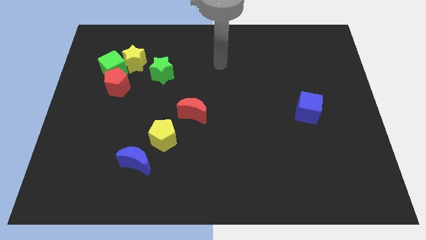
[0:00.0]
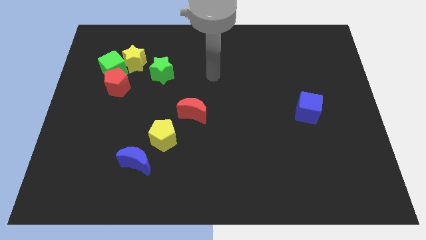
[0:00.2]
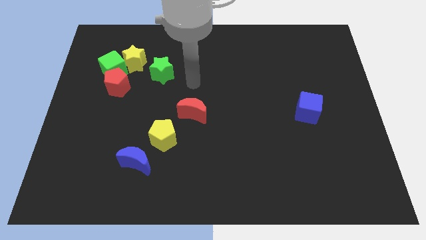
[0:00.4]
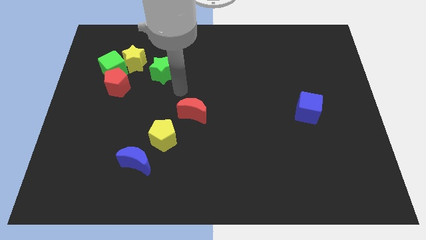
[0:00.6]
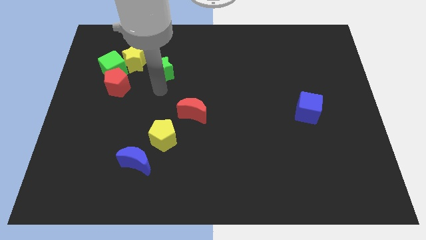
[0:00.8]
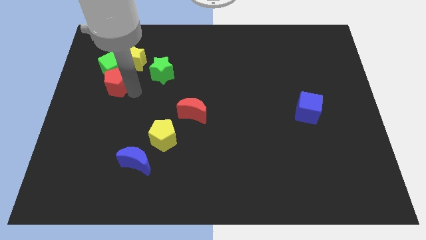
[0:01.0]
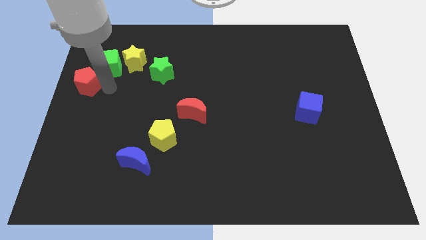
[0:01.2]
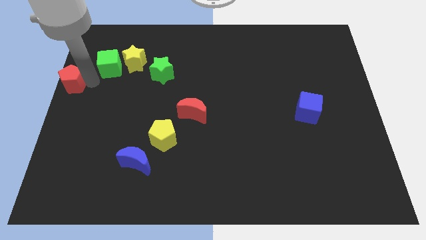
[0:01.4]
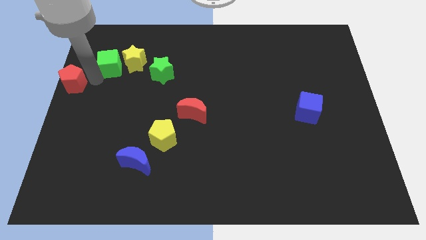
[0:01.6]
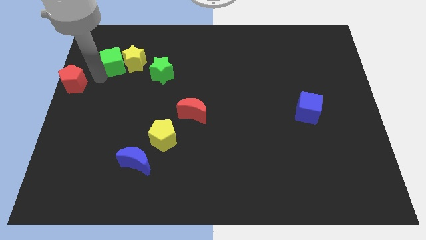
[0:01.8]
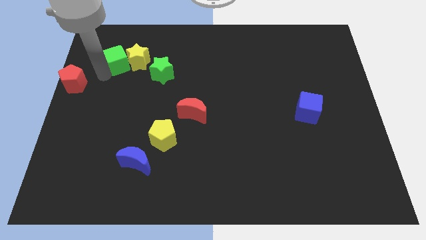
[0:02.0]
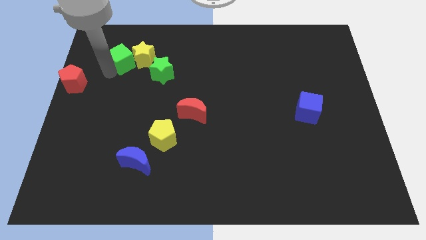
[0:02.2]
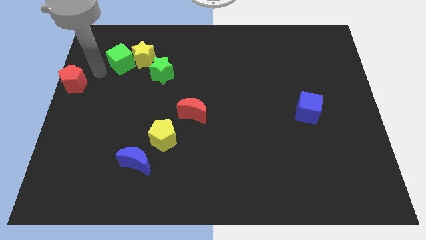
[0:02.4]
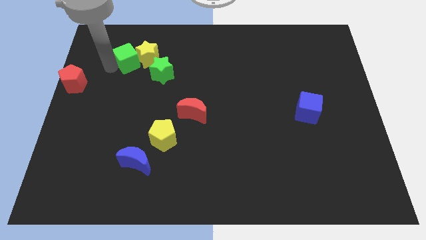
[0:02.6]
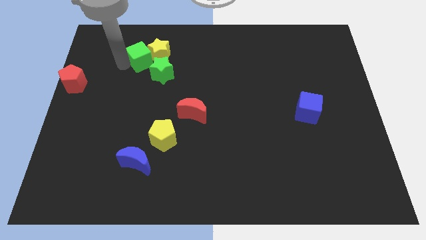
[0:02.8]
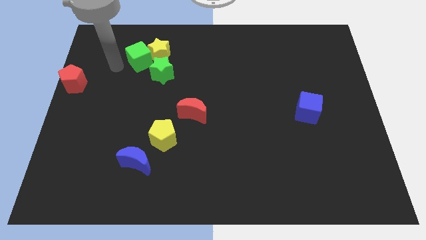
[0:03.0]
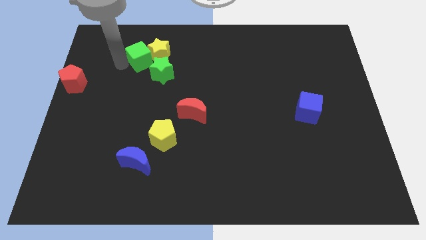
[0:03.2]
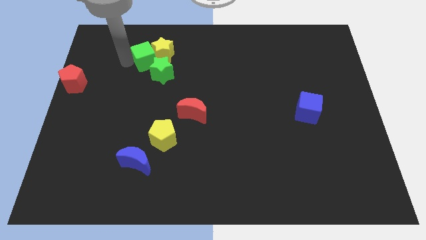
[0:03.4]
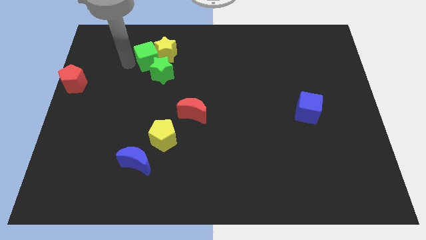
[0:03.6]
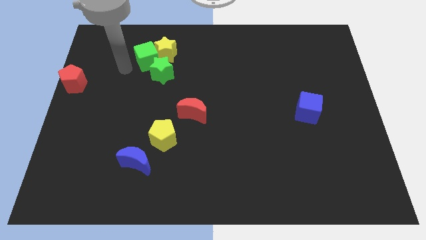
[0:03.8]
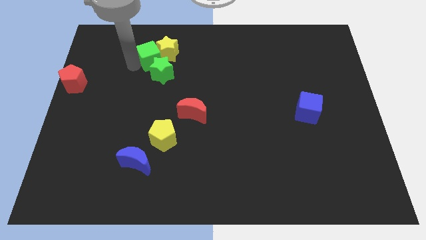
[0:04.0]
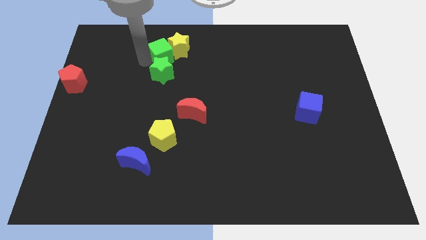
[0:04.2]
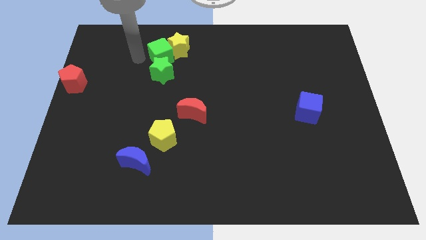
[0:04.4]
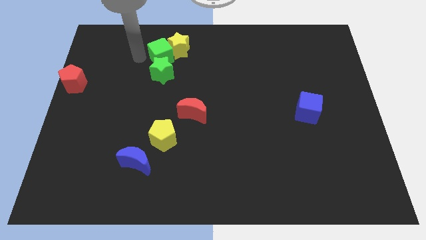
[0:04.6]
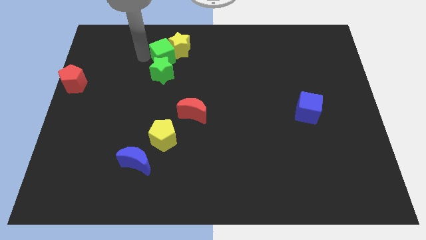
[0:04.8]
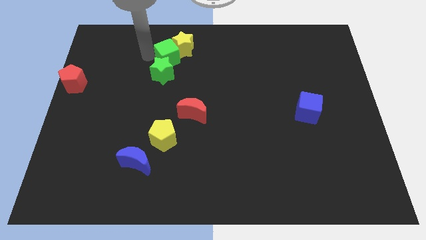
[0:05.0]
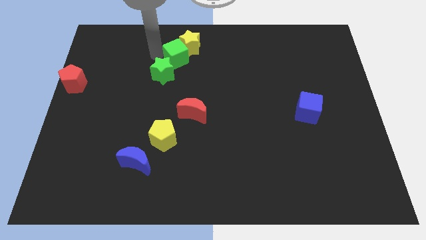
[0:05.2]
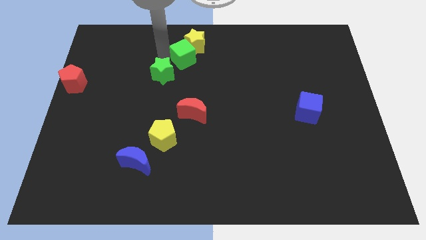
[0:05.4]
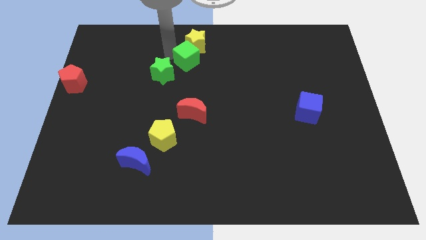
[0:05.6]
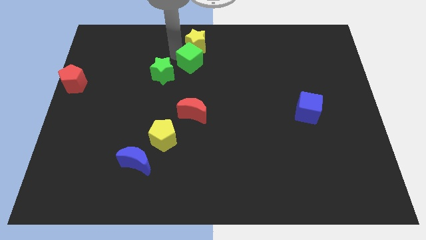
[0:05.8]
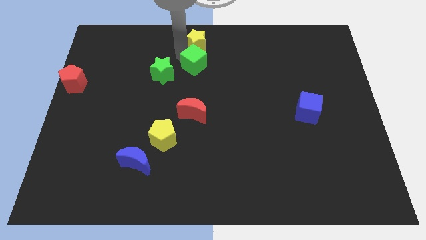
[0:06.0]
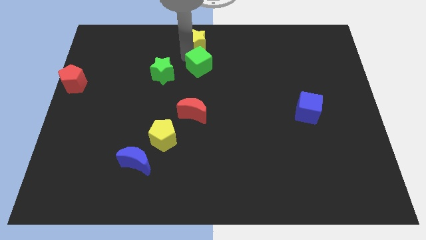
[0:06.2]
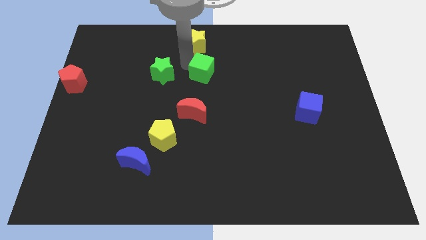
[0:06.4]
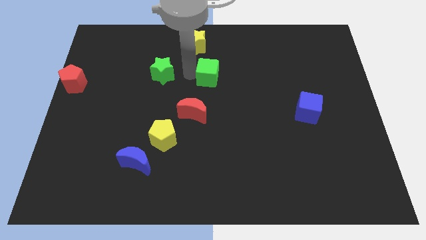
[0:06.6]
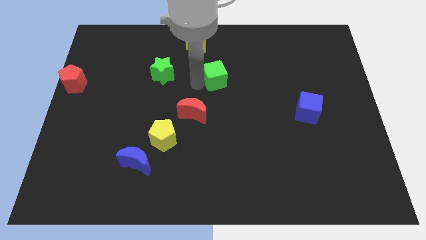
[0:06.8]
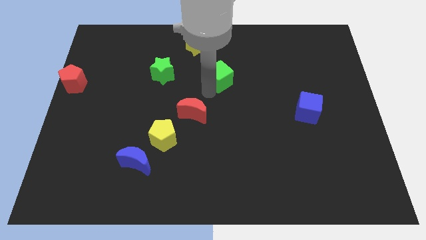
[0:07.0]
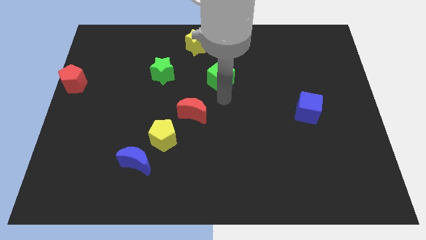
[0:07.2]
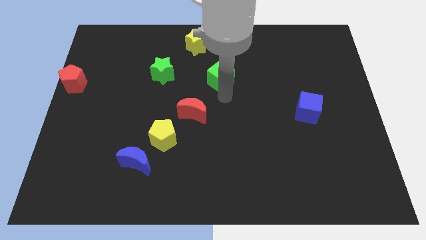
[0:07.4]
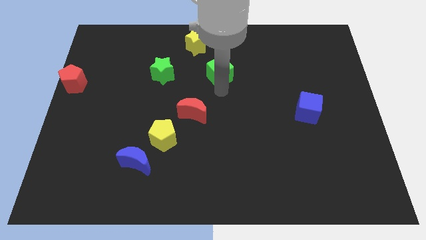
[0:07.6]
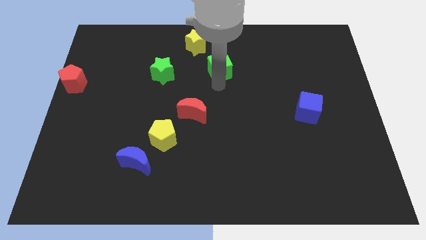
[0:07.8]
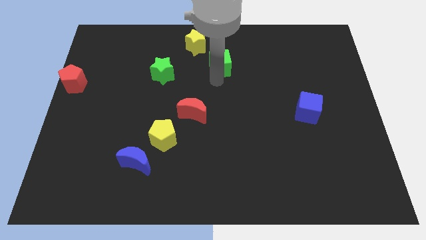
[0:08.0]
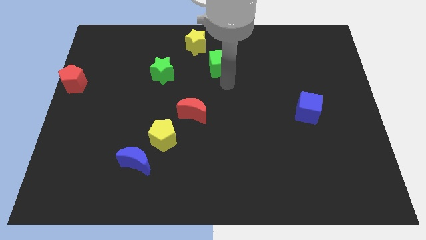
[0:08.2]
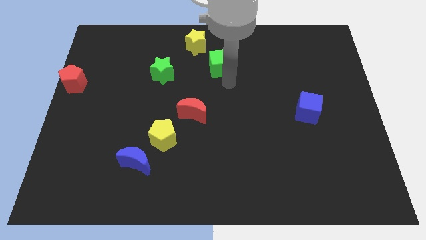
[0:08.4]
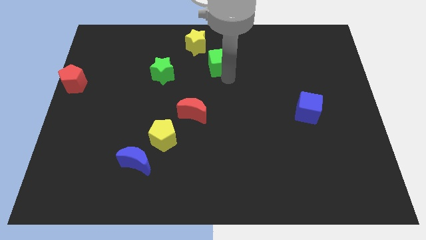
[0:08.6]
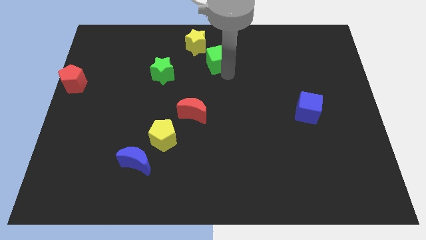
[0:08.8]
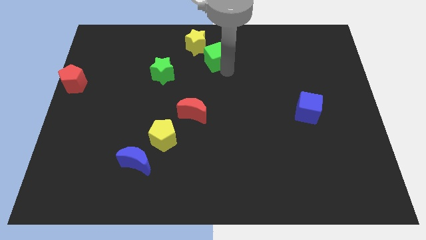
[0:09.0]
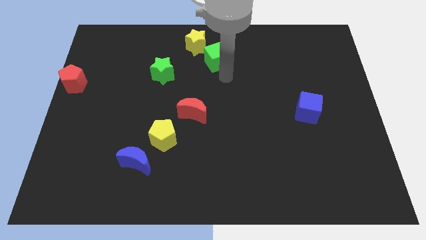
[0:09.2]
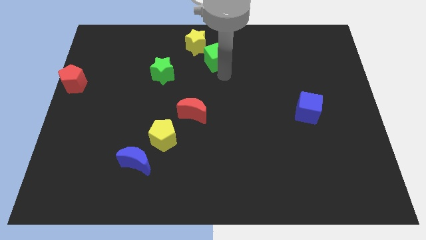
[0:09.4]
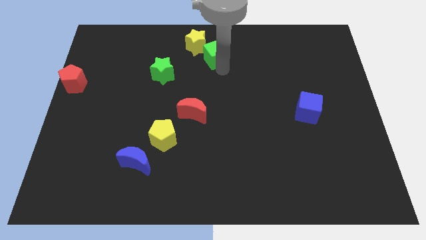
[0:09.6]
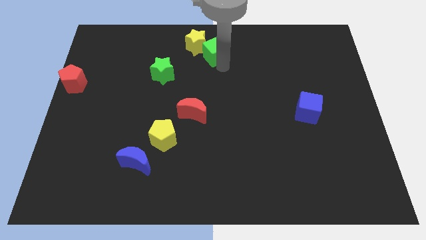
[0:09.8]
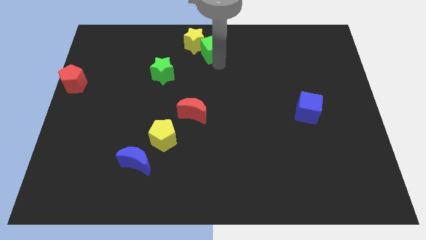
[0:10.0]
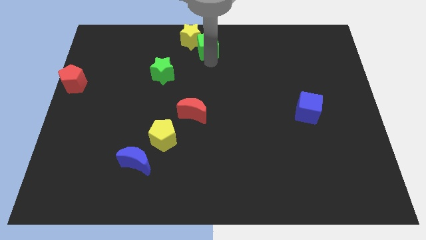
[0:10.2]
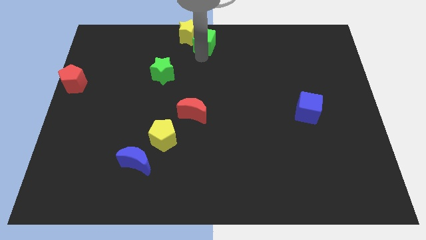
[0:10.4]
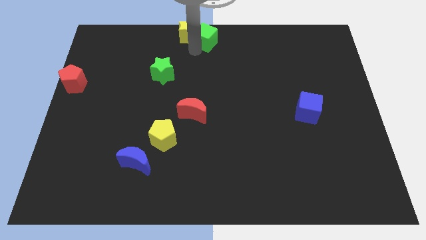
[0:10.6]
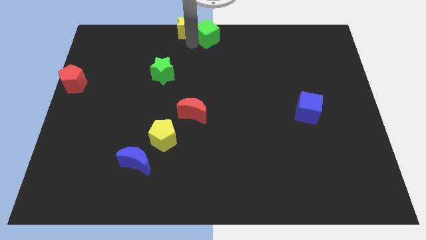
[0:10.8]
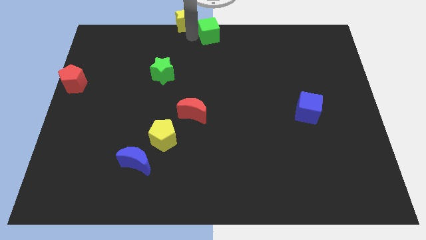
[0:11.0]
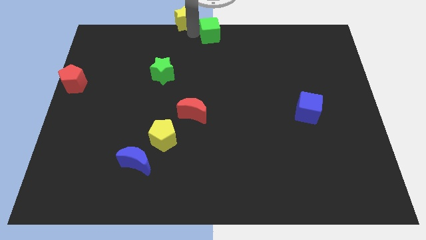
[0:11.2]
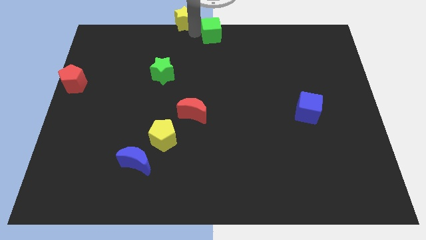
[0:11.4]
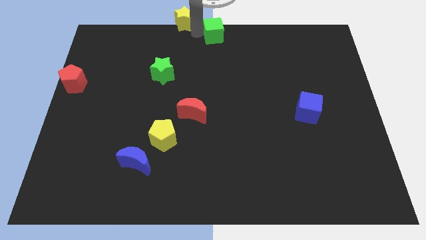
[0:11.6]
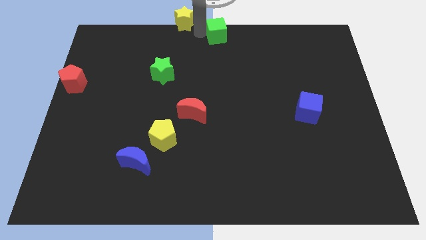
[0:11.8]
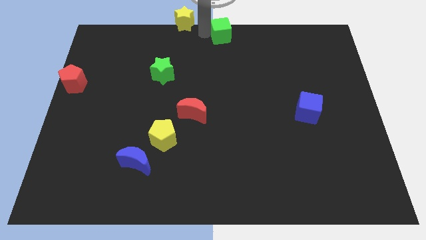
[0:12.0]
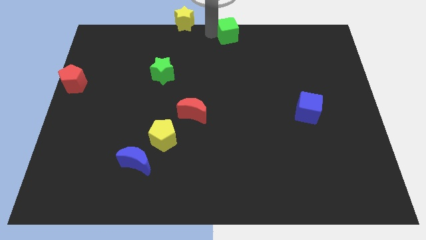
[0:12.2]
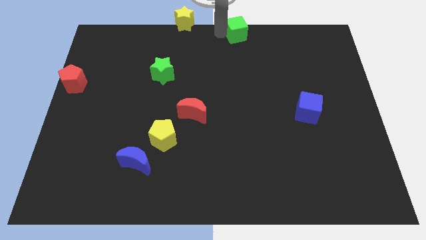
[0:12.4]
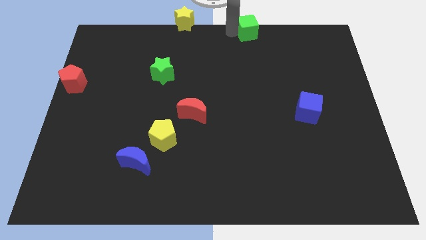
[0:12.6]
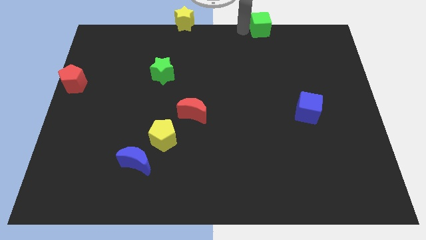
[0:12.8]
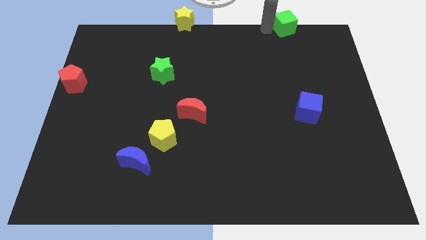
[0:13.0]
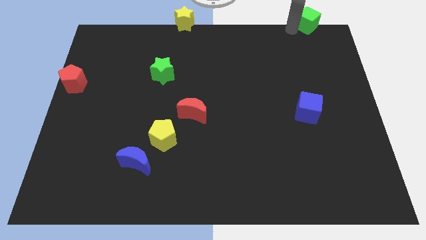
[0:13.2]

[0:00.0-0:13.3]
slide the green cube to the top right corner
